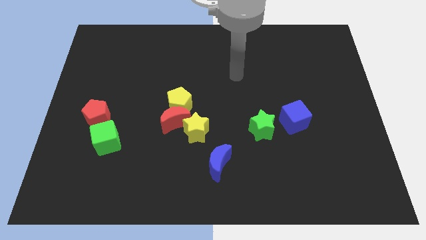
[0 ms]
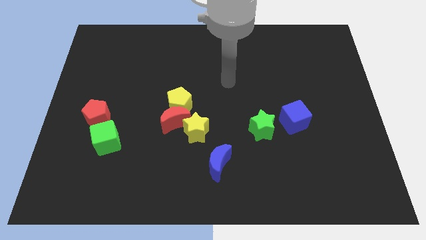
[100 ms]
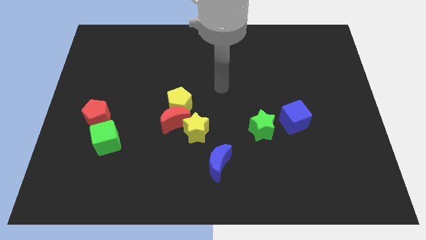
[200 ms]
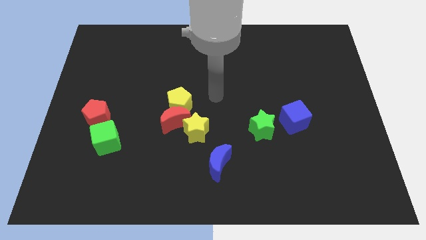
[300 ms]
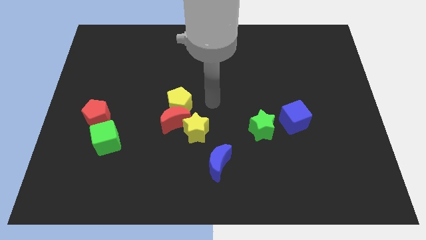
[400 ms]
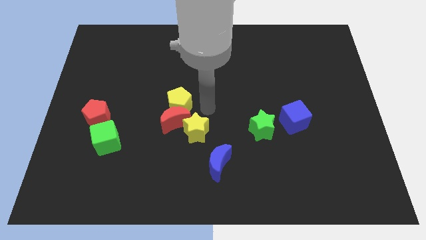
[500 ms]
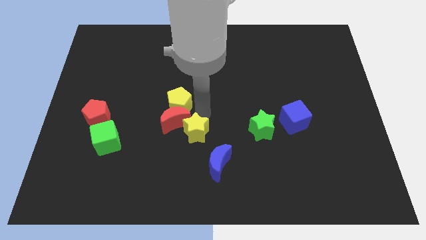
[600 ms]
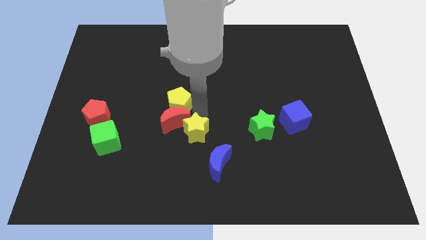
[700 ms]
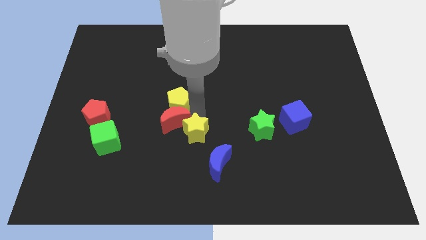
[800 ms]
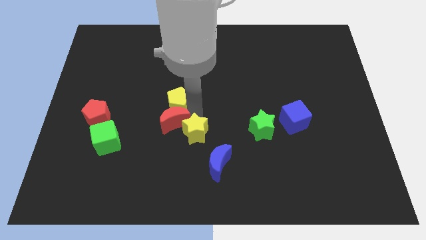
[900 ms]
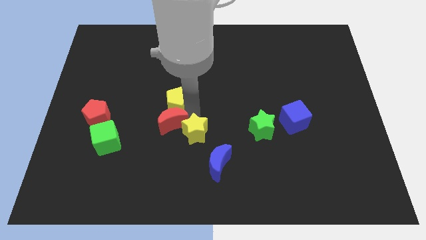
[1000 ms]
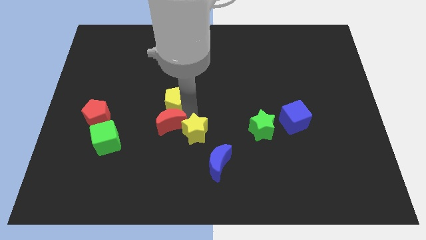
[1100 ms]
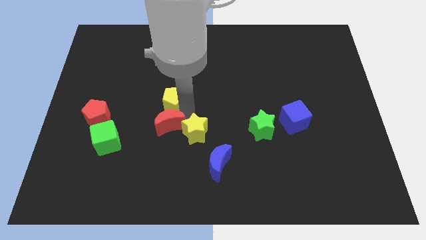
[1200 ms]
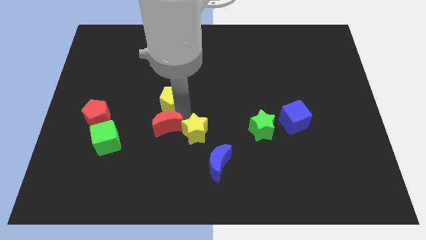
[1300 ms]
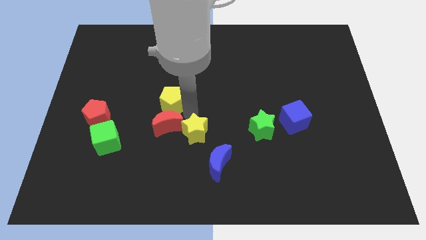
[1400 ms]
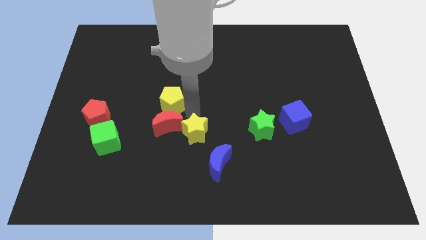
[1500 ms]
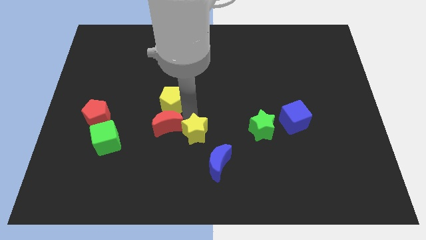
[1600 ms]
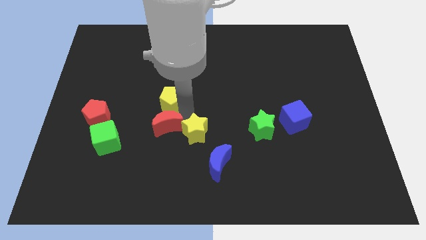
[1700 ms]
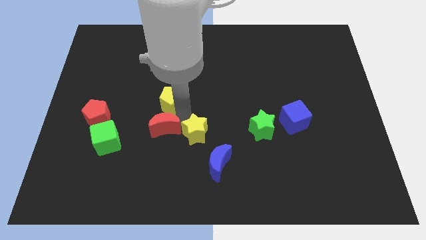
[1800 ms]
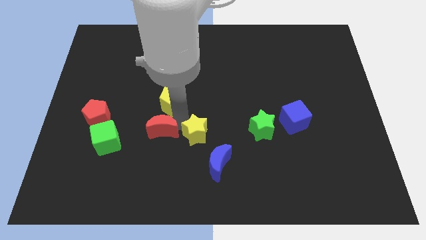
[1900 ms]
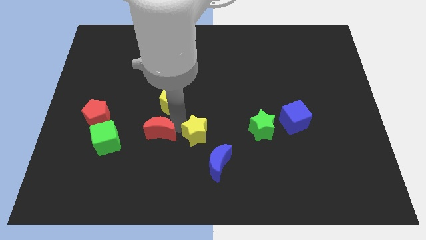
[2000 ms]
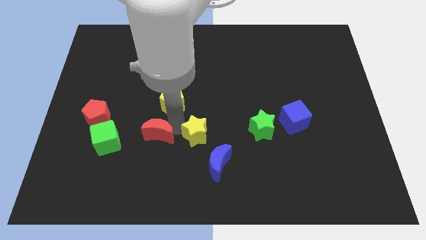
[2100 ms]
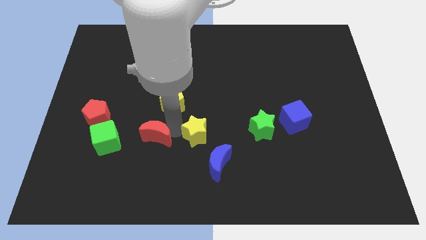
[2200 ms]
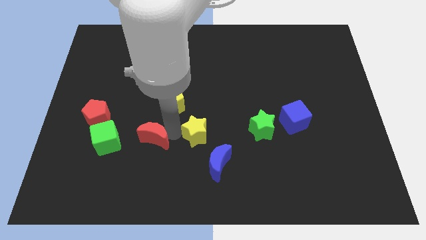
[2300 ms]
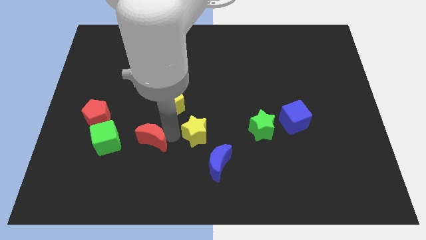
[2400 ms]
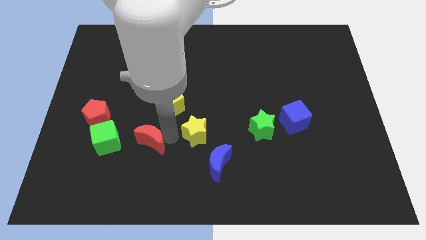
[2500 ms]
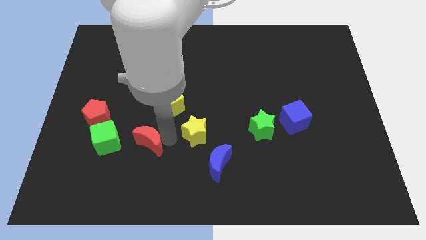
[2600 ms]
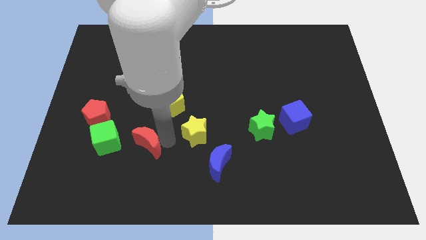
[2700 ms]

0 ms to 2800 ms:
pull the red moon apart from the yellow pentagon and yellow star

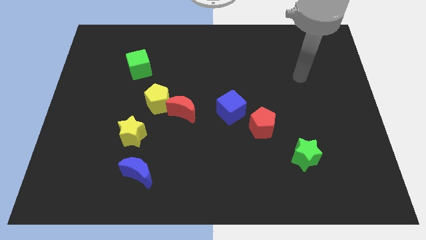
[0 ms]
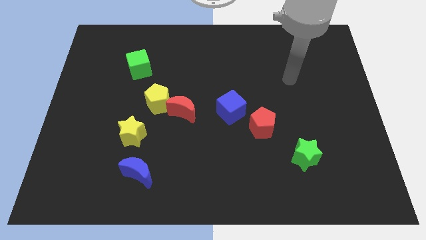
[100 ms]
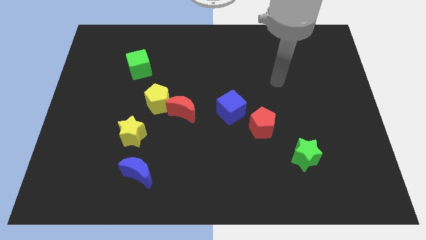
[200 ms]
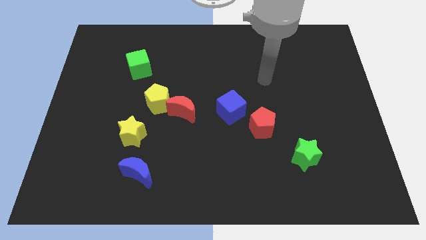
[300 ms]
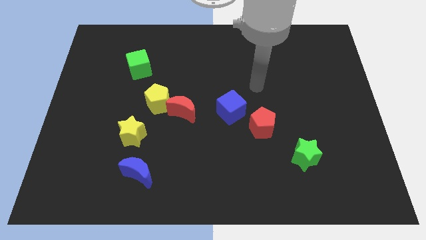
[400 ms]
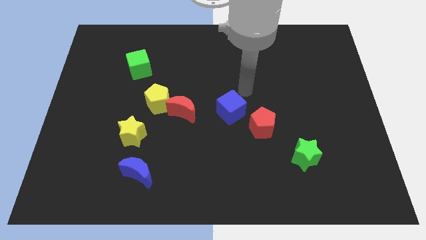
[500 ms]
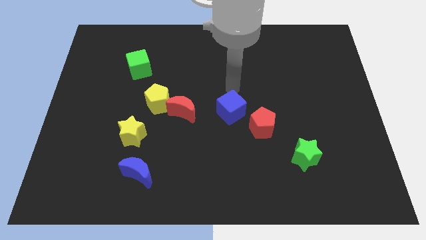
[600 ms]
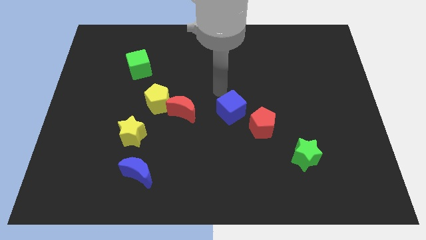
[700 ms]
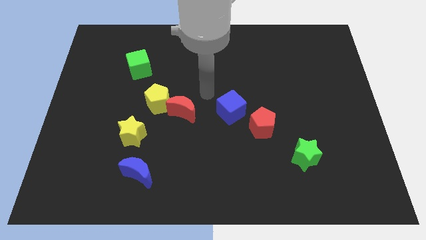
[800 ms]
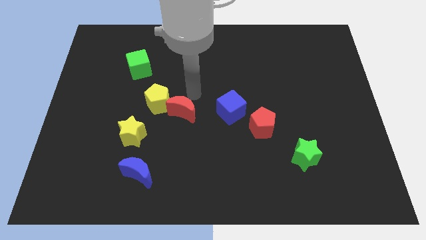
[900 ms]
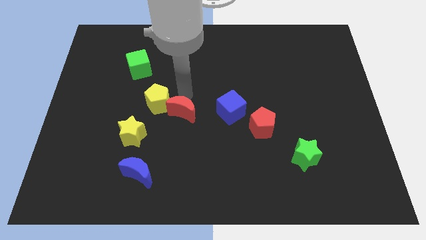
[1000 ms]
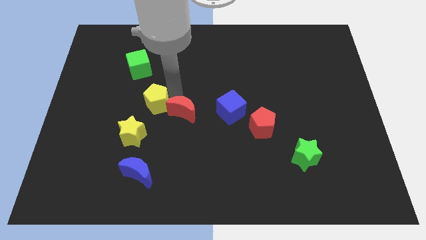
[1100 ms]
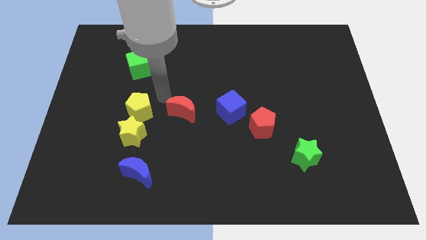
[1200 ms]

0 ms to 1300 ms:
pull the red moon apart from the yellow pentagon

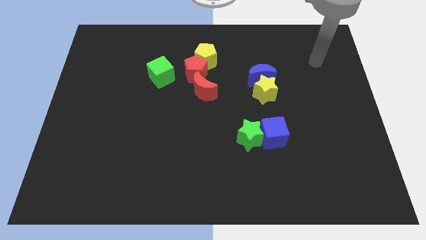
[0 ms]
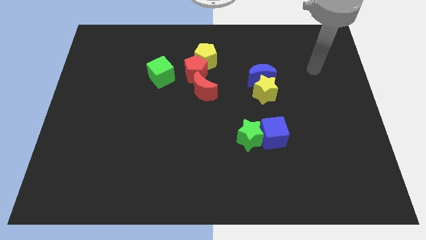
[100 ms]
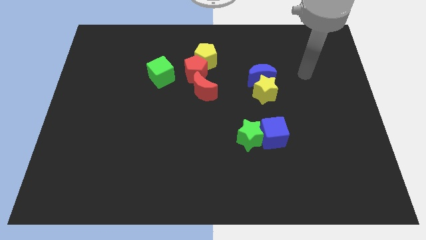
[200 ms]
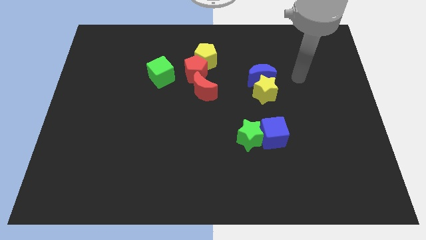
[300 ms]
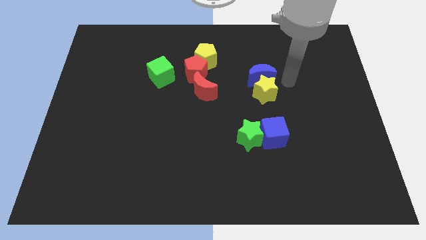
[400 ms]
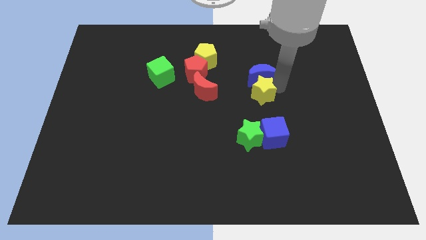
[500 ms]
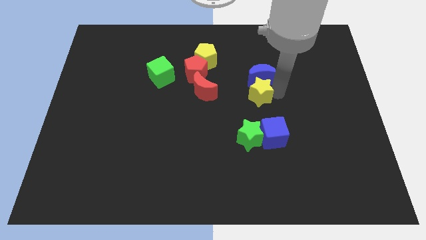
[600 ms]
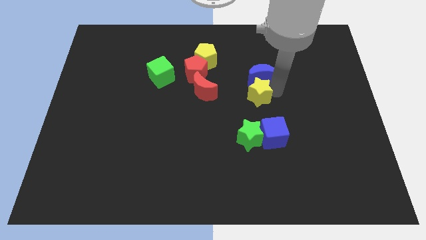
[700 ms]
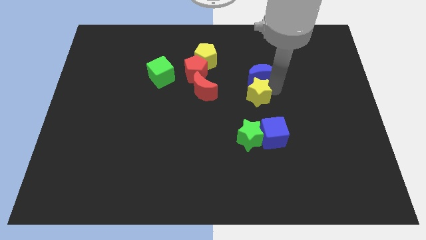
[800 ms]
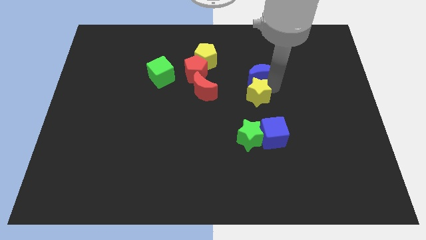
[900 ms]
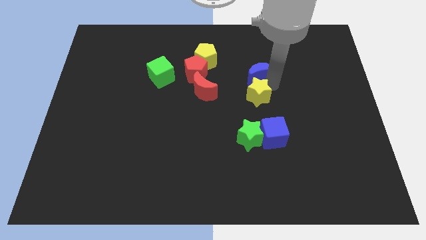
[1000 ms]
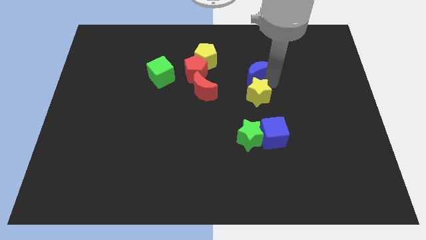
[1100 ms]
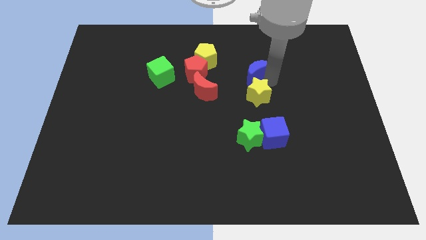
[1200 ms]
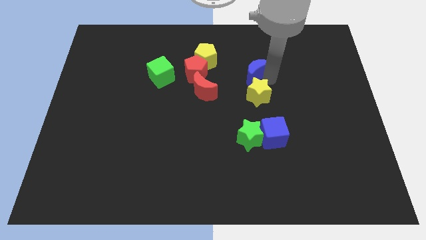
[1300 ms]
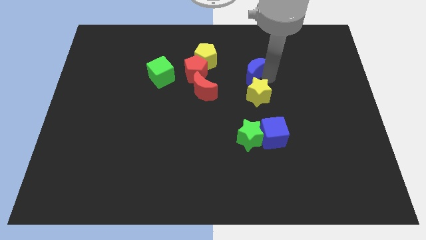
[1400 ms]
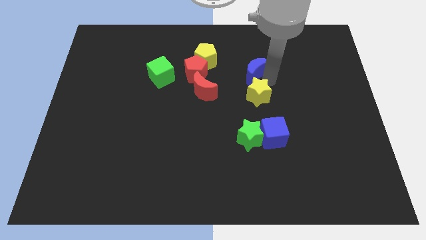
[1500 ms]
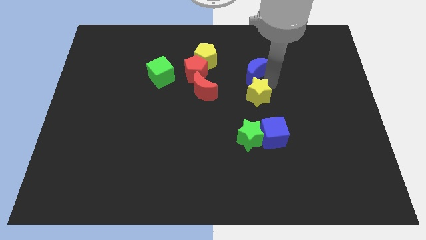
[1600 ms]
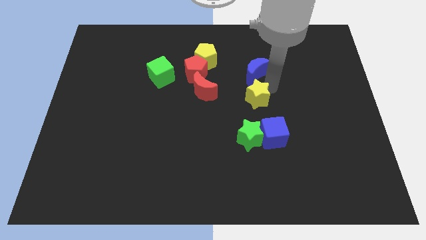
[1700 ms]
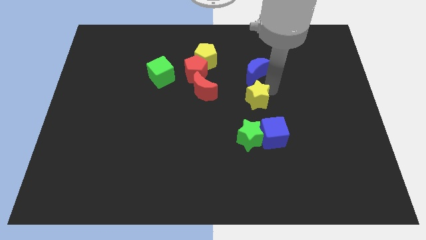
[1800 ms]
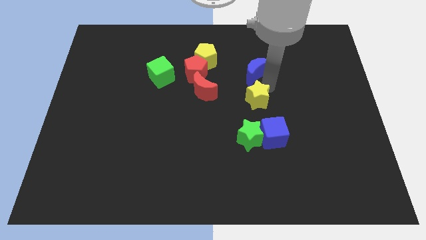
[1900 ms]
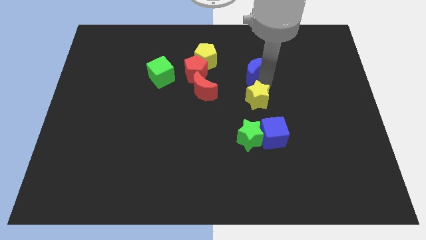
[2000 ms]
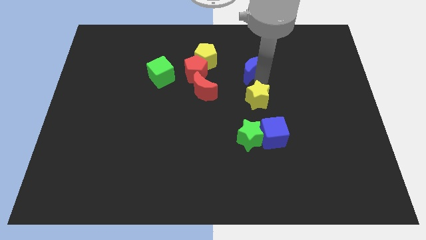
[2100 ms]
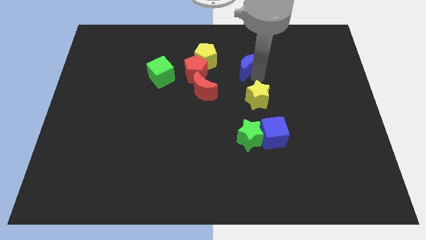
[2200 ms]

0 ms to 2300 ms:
pull the blue moon apart from the yellow star

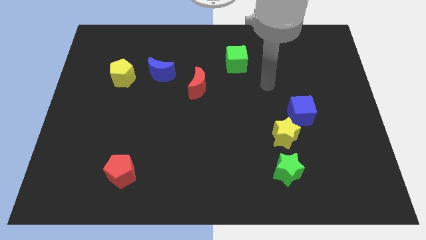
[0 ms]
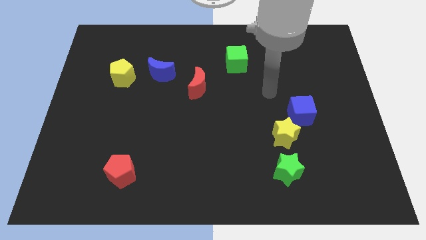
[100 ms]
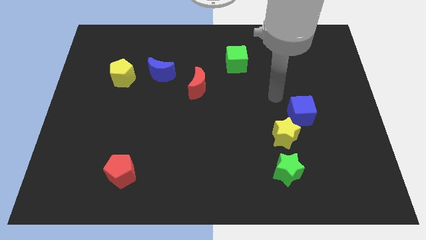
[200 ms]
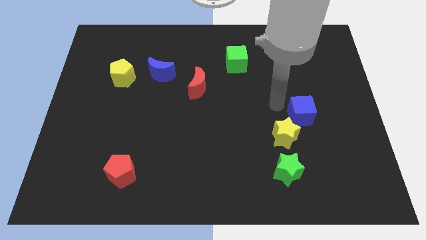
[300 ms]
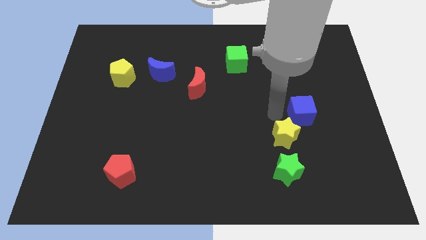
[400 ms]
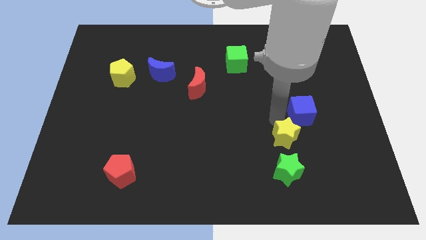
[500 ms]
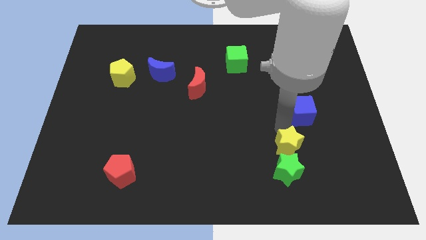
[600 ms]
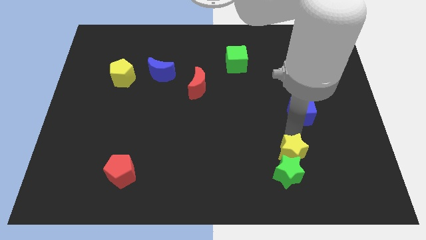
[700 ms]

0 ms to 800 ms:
move the blue cube away from the yellow star

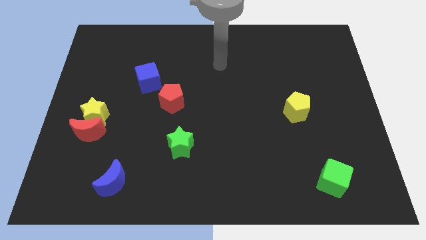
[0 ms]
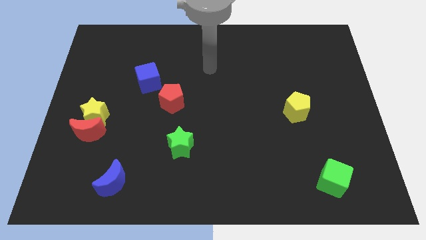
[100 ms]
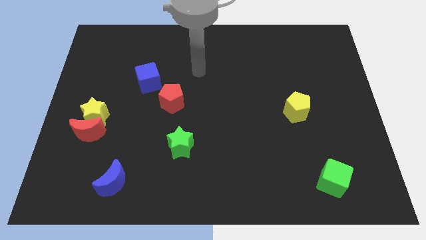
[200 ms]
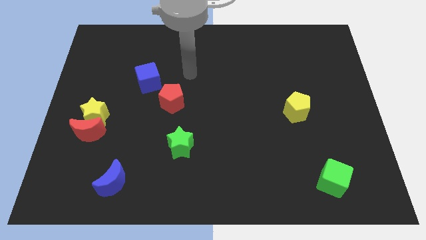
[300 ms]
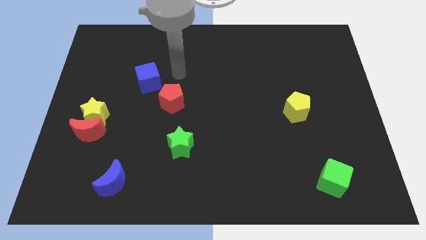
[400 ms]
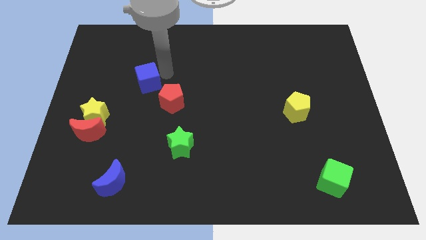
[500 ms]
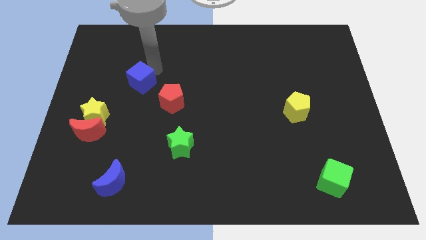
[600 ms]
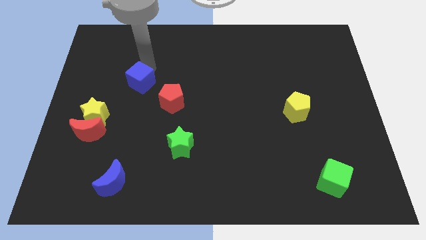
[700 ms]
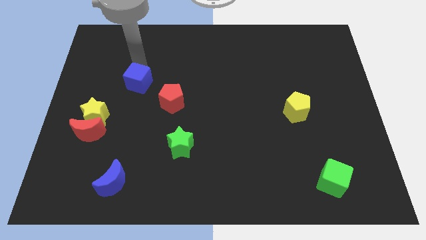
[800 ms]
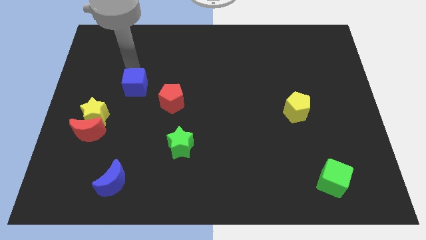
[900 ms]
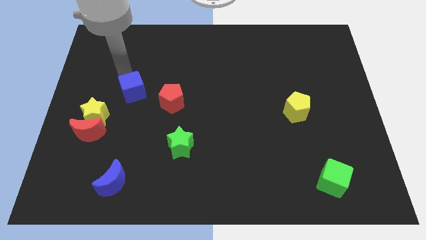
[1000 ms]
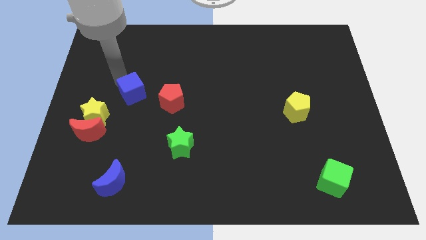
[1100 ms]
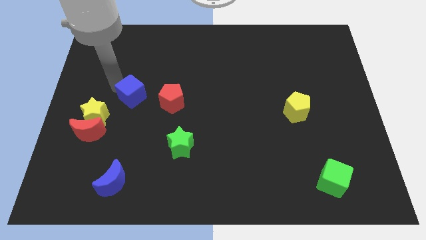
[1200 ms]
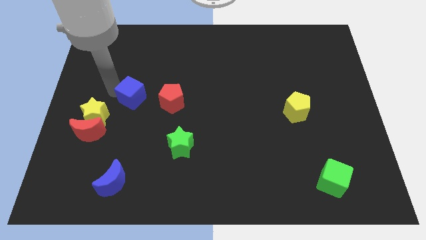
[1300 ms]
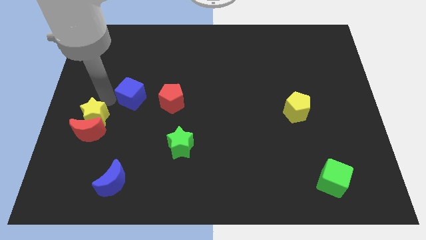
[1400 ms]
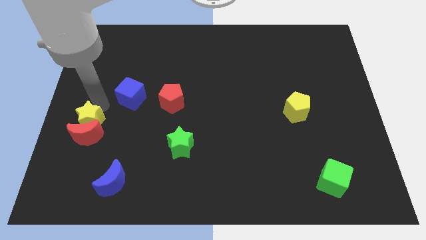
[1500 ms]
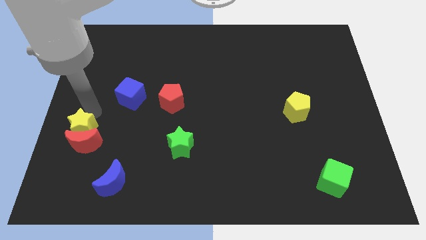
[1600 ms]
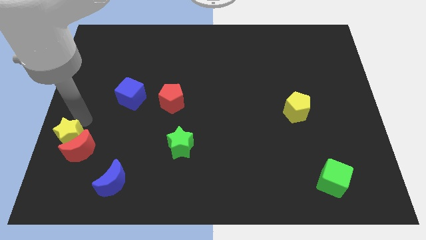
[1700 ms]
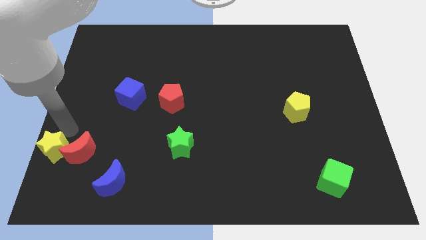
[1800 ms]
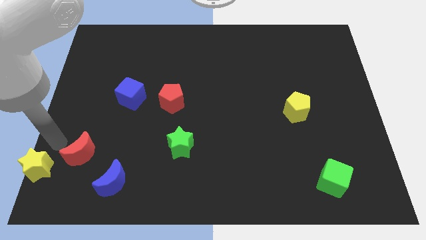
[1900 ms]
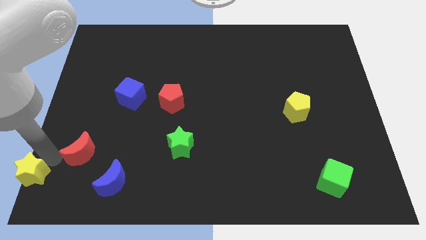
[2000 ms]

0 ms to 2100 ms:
move the red moon away from the yellow star
